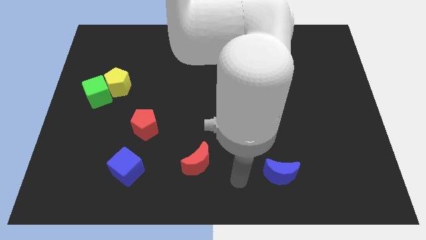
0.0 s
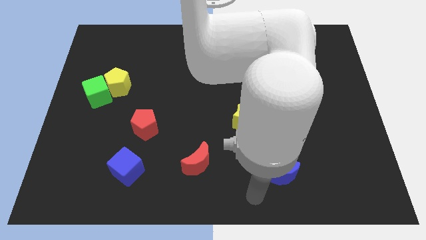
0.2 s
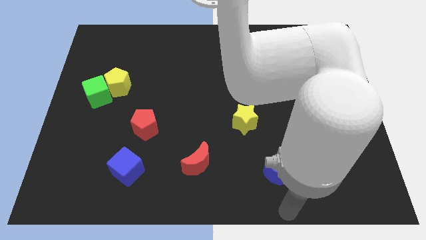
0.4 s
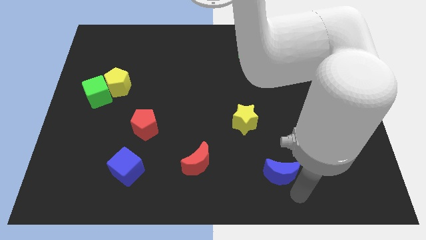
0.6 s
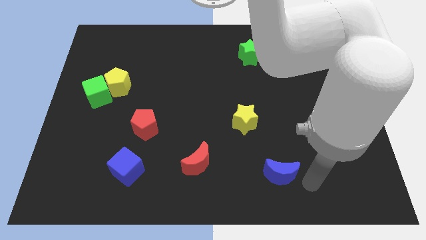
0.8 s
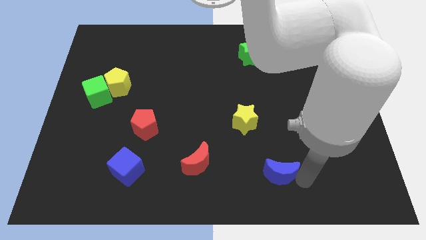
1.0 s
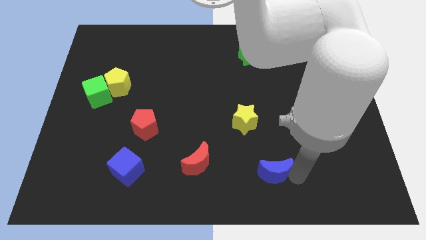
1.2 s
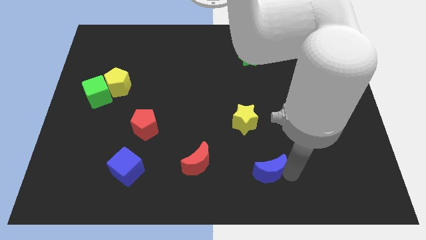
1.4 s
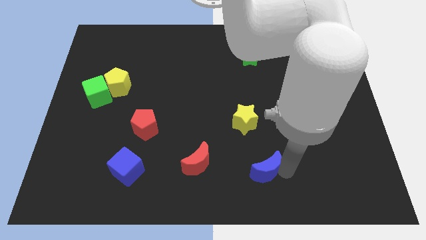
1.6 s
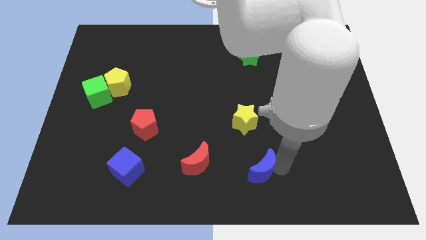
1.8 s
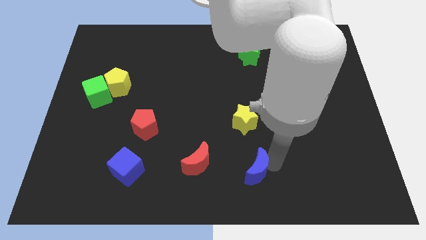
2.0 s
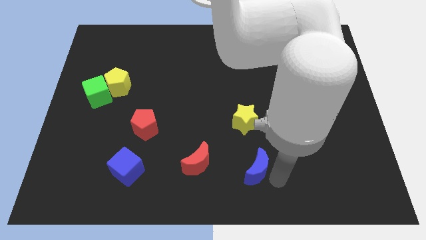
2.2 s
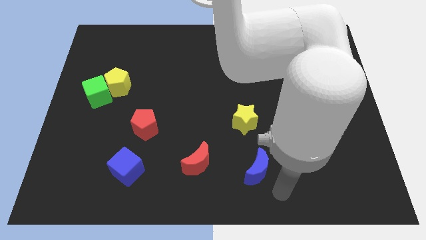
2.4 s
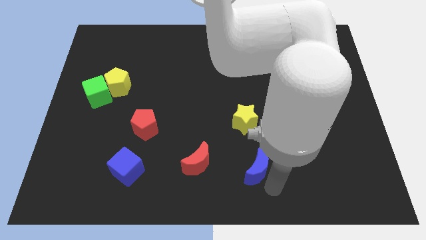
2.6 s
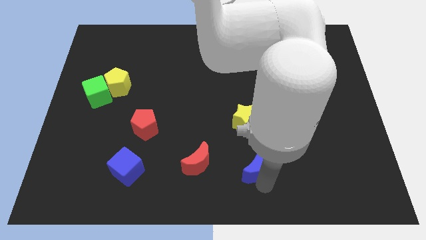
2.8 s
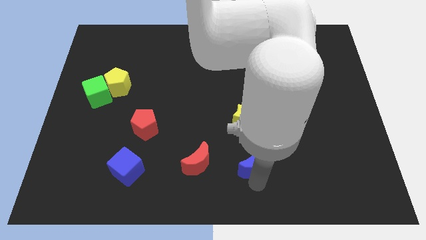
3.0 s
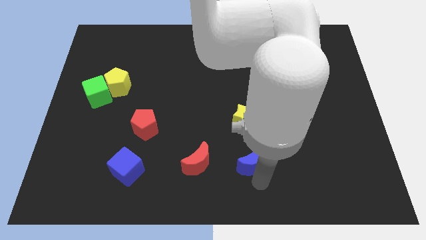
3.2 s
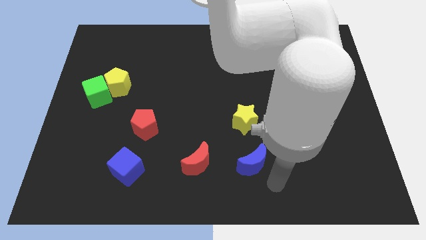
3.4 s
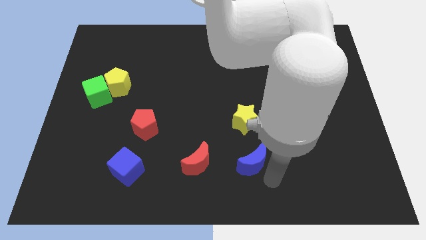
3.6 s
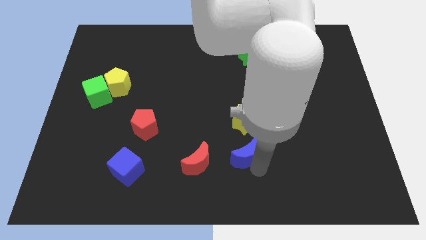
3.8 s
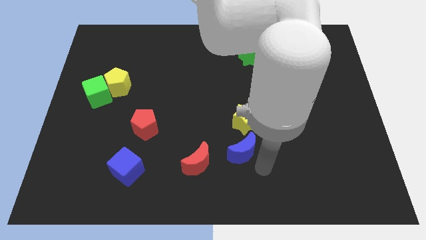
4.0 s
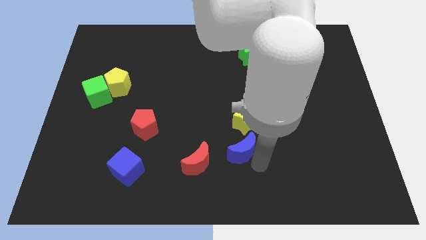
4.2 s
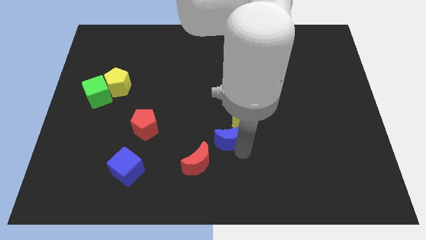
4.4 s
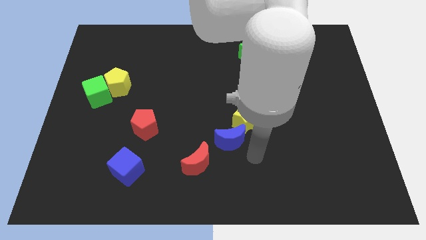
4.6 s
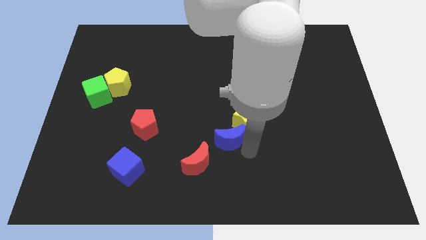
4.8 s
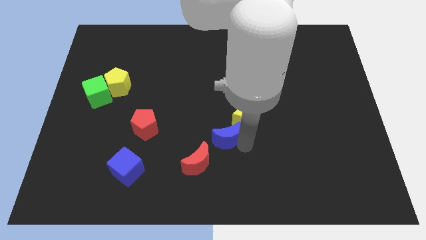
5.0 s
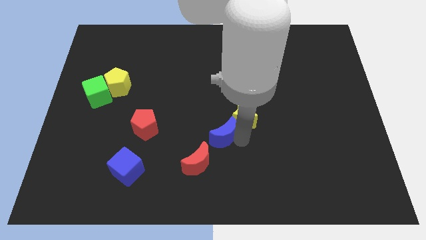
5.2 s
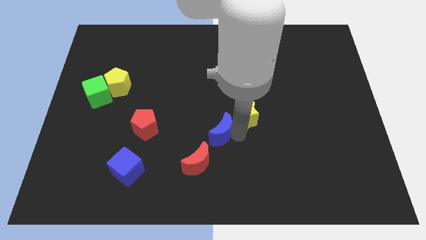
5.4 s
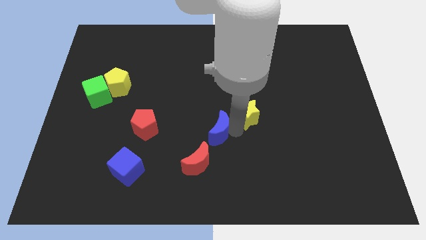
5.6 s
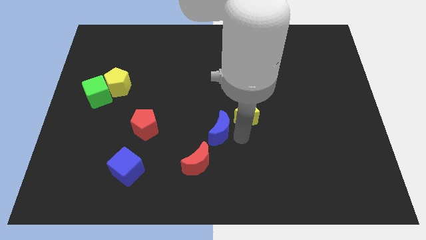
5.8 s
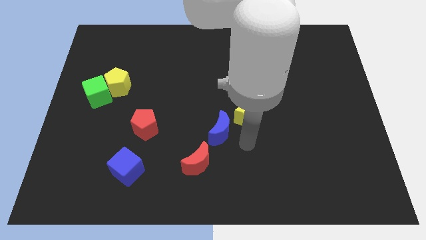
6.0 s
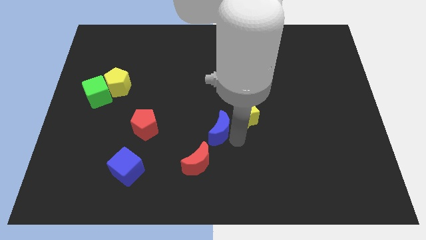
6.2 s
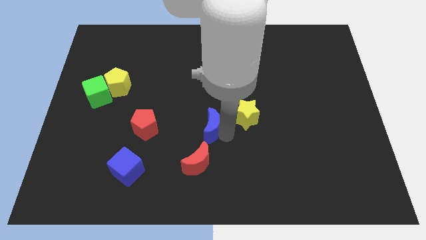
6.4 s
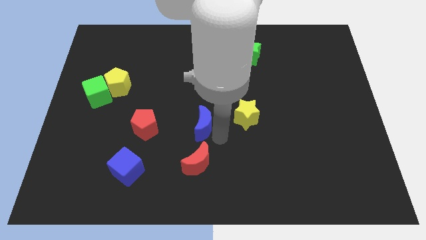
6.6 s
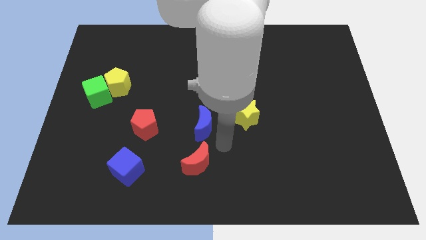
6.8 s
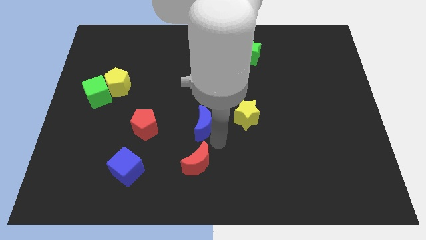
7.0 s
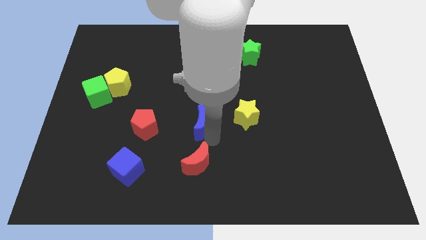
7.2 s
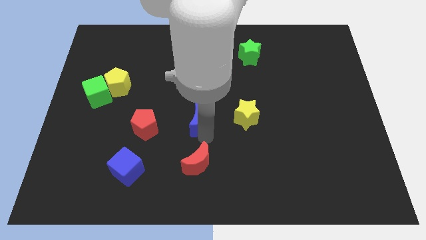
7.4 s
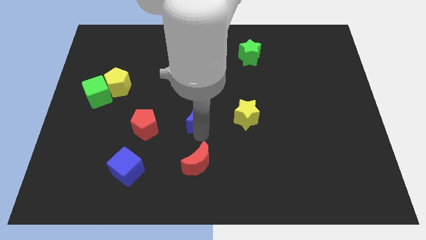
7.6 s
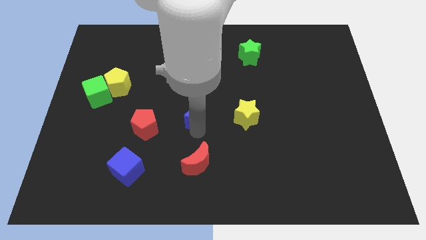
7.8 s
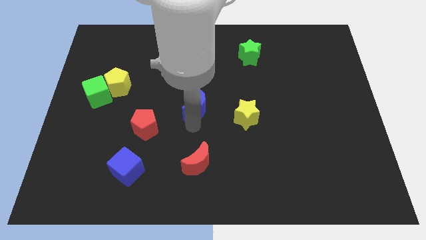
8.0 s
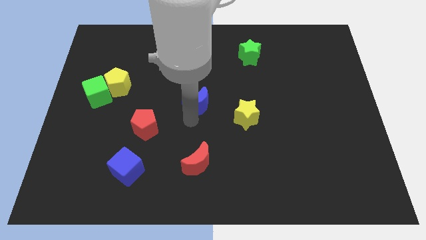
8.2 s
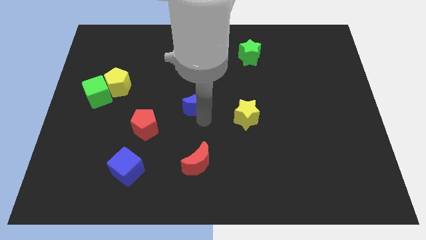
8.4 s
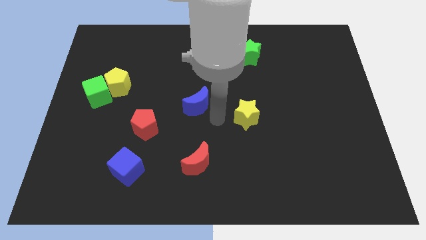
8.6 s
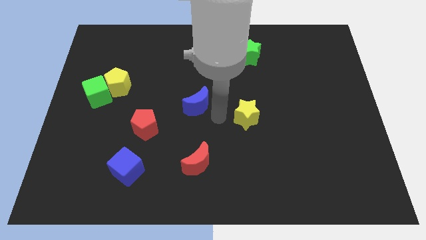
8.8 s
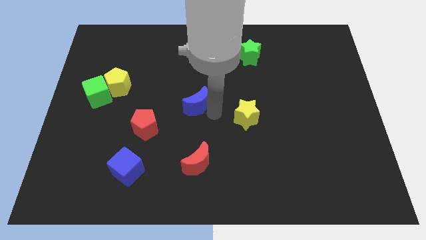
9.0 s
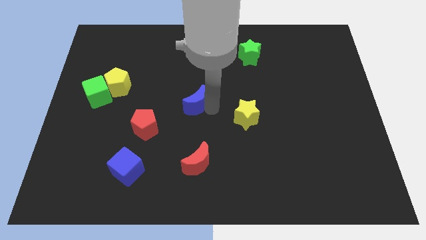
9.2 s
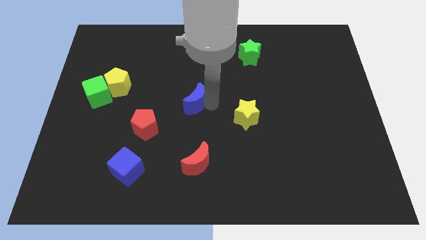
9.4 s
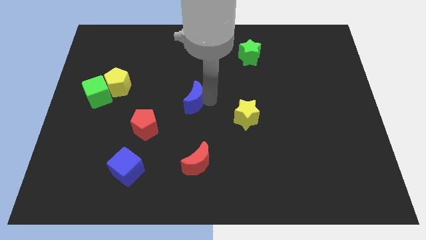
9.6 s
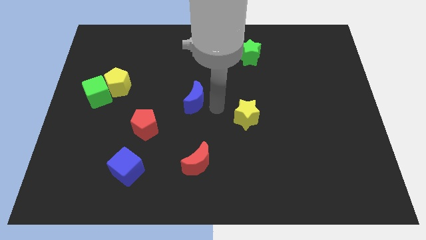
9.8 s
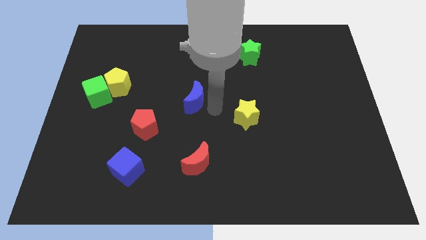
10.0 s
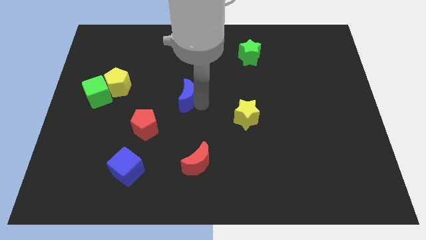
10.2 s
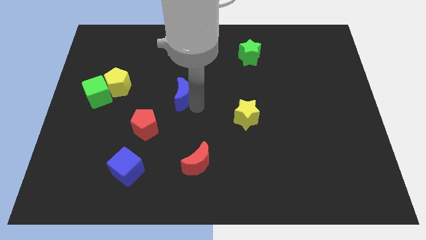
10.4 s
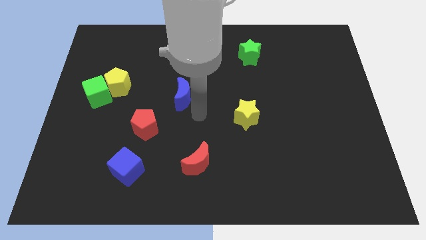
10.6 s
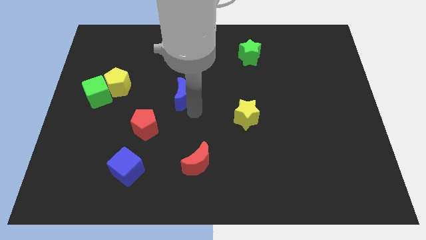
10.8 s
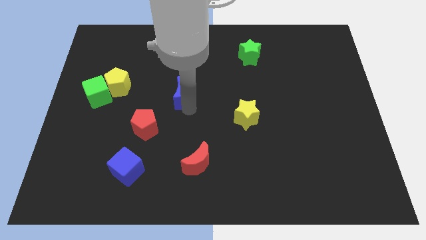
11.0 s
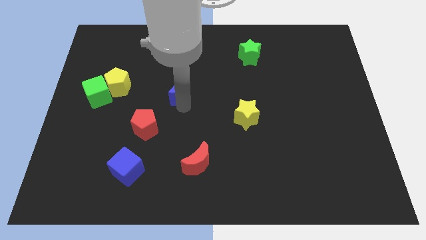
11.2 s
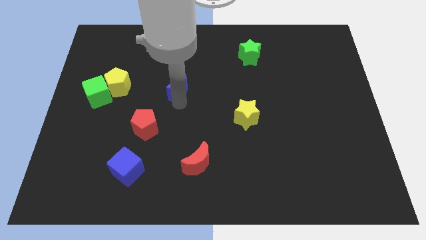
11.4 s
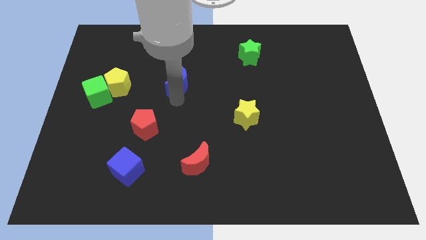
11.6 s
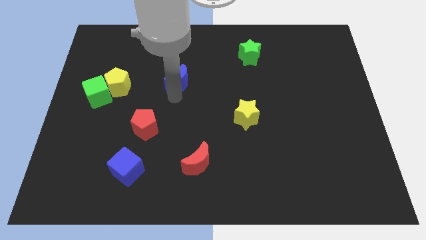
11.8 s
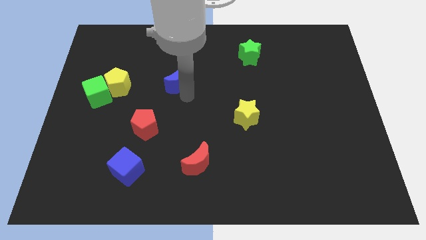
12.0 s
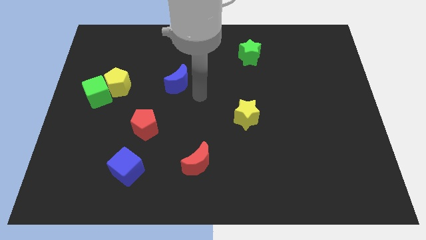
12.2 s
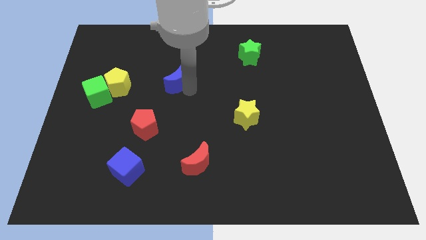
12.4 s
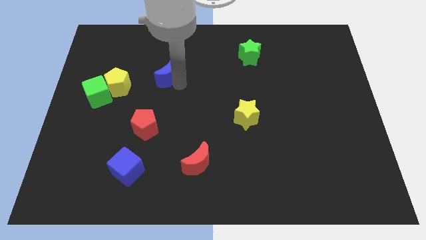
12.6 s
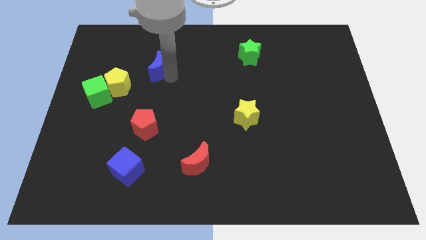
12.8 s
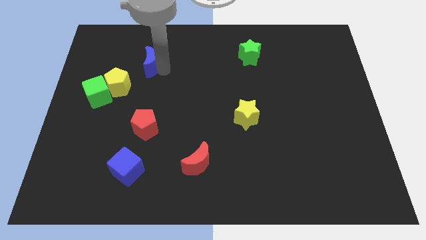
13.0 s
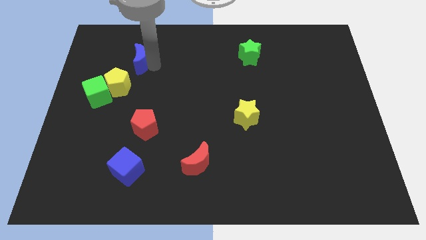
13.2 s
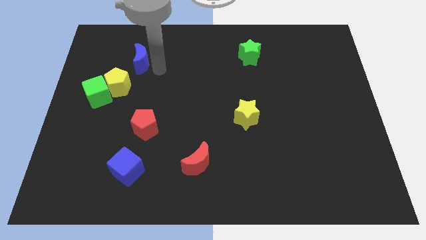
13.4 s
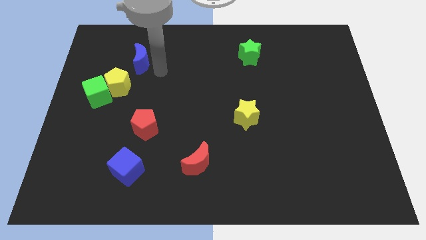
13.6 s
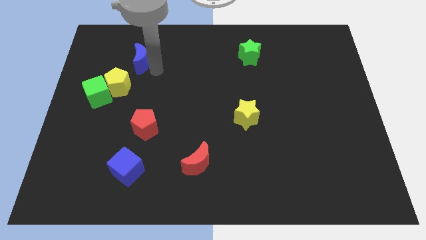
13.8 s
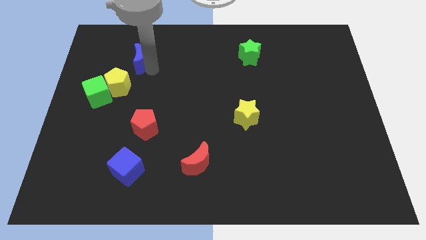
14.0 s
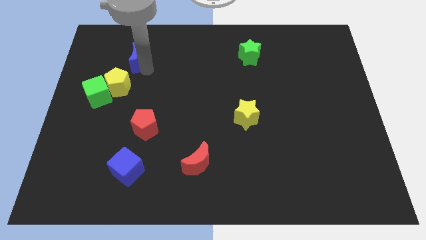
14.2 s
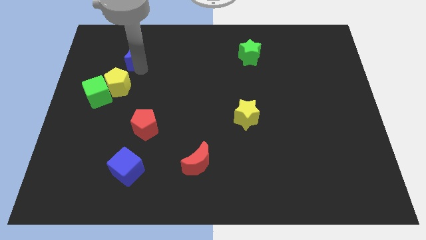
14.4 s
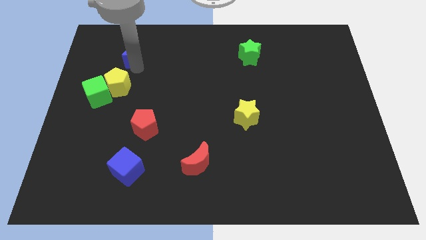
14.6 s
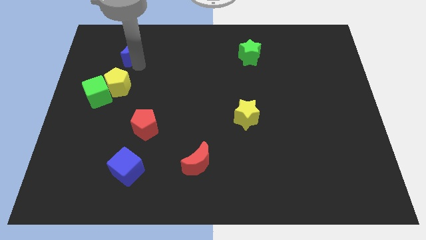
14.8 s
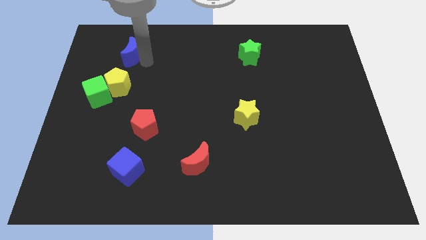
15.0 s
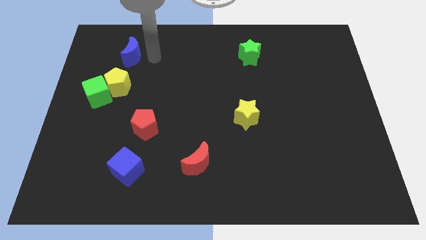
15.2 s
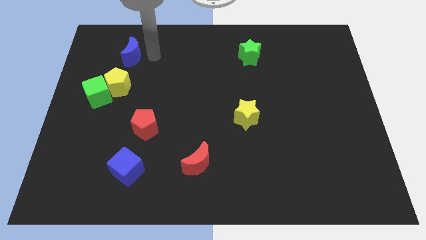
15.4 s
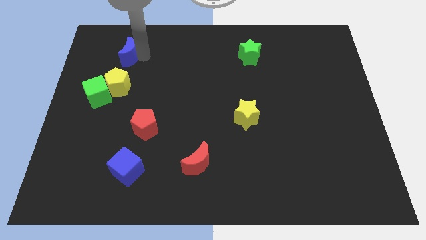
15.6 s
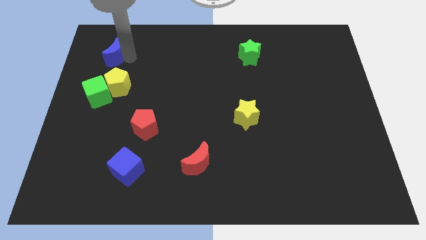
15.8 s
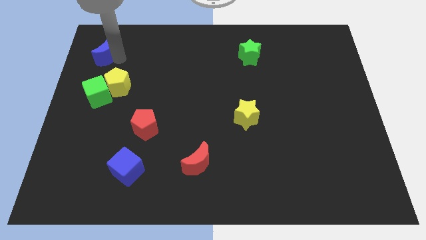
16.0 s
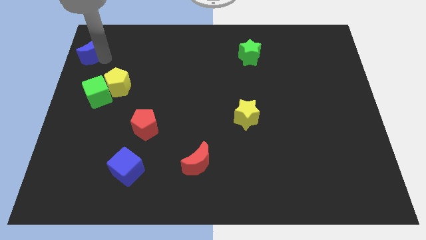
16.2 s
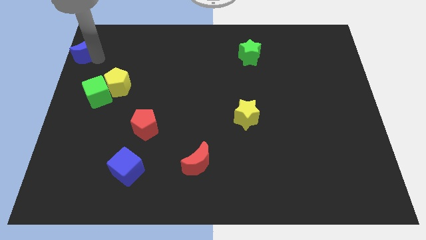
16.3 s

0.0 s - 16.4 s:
slide the blue moon to the top left of the board
